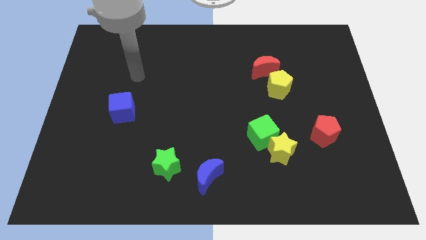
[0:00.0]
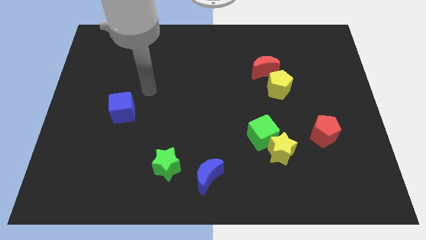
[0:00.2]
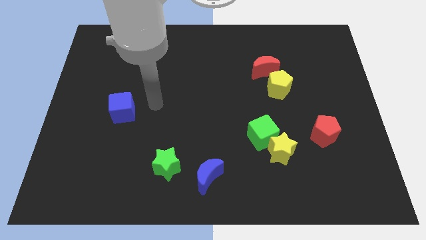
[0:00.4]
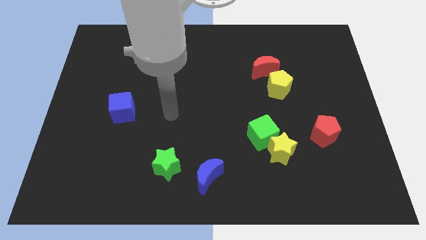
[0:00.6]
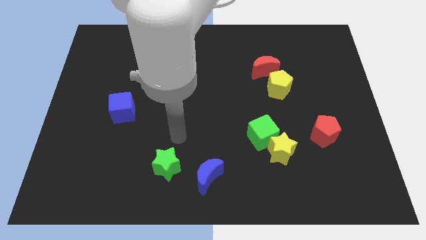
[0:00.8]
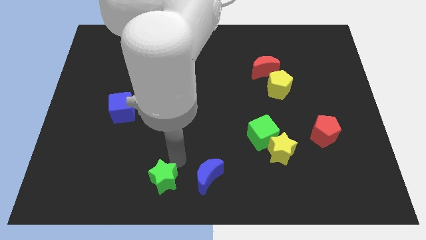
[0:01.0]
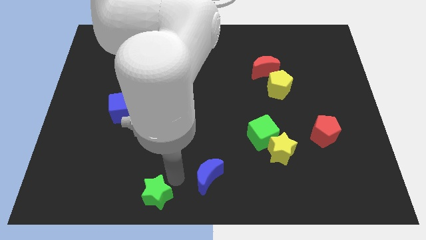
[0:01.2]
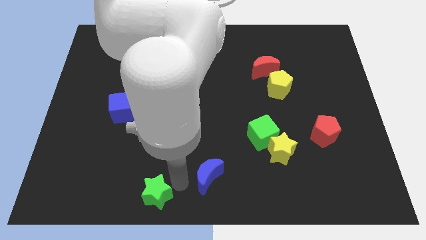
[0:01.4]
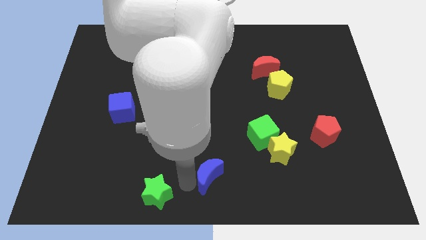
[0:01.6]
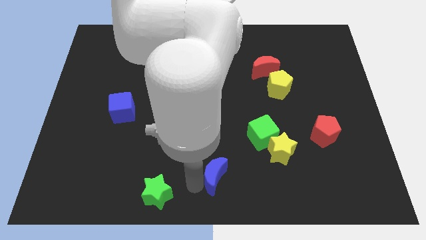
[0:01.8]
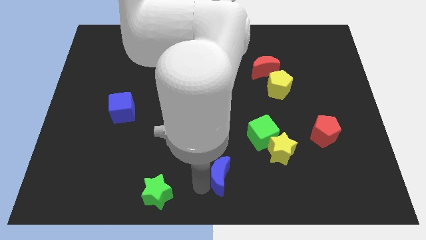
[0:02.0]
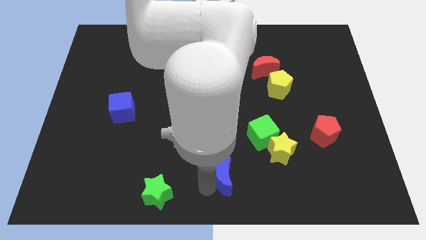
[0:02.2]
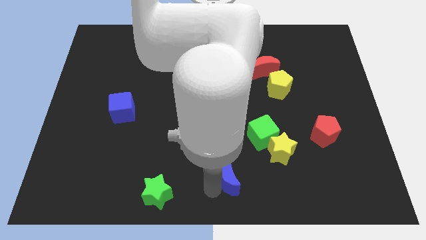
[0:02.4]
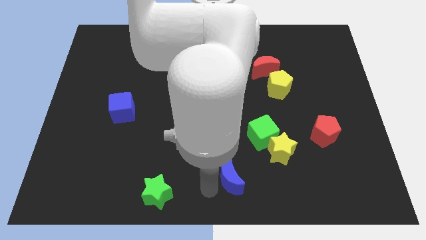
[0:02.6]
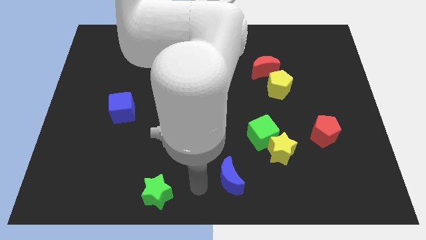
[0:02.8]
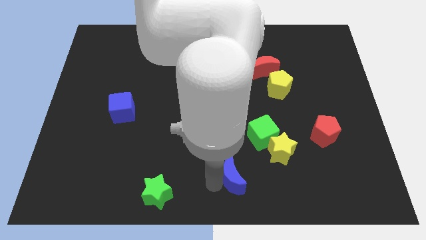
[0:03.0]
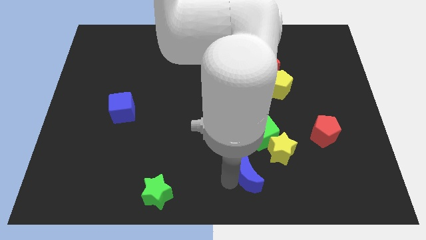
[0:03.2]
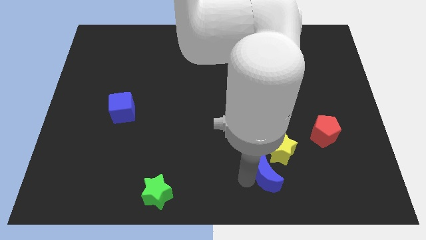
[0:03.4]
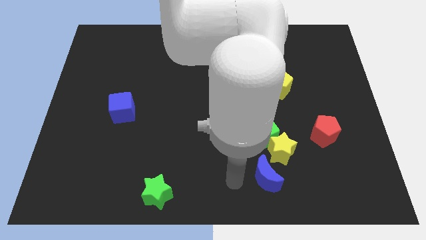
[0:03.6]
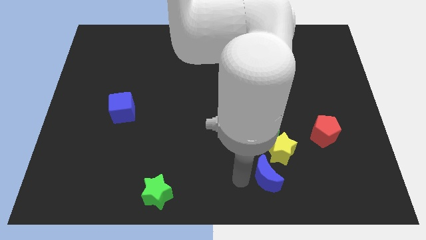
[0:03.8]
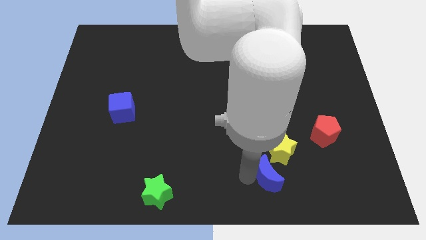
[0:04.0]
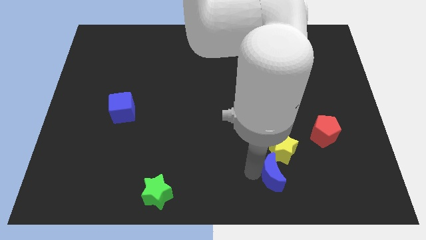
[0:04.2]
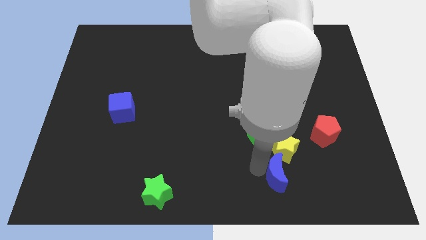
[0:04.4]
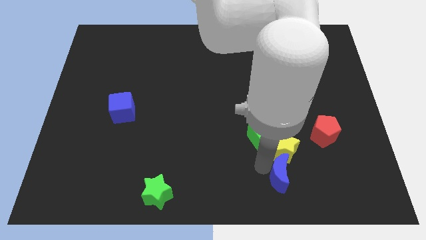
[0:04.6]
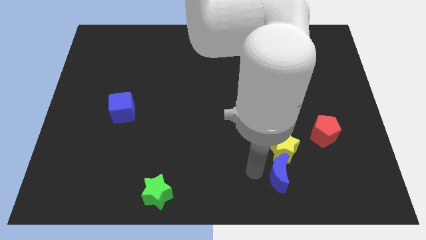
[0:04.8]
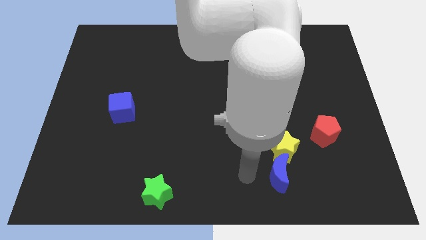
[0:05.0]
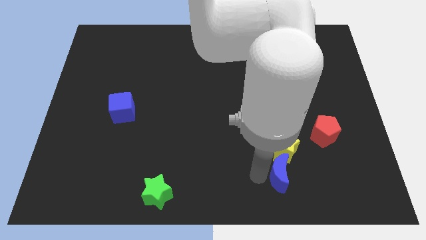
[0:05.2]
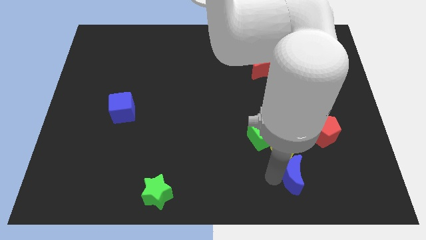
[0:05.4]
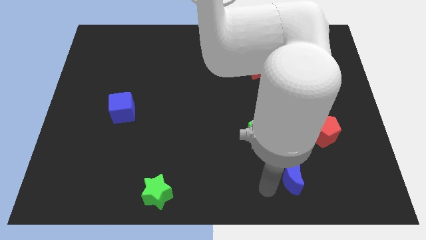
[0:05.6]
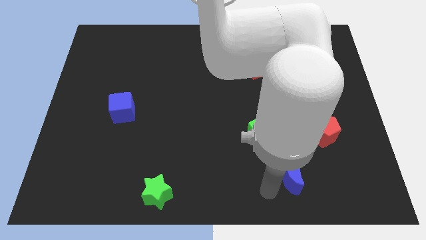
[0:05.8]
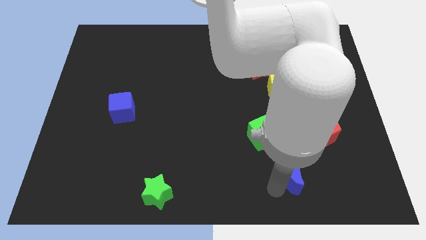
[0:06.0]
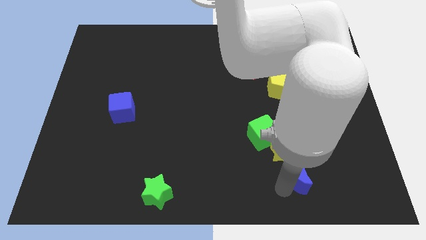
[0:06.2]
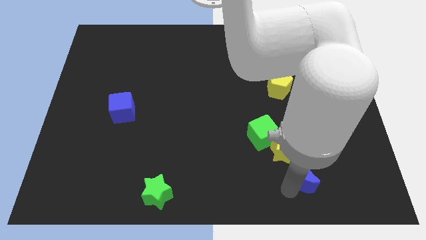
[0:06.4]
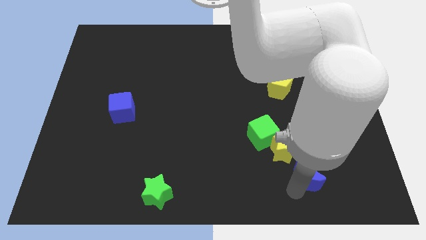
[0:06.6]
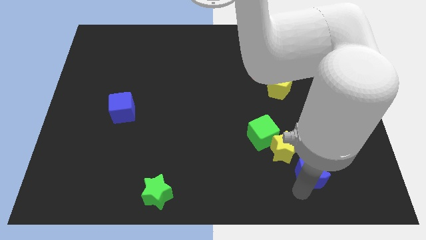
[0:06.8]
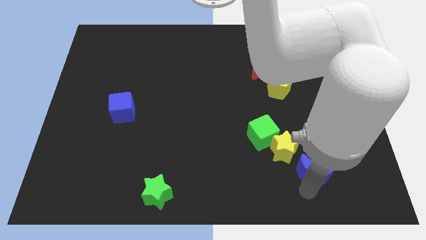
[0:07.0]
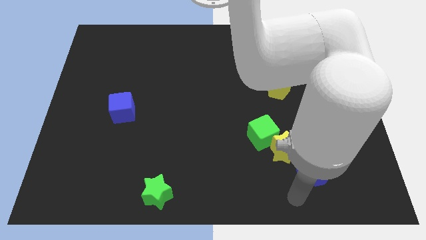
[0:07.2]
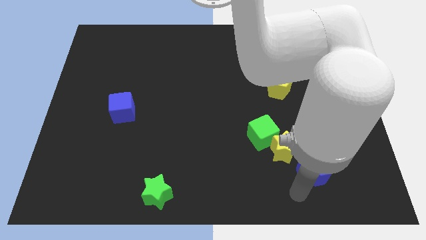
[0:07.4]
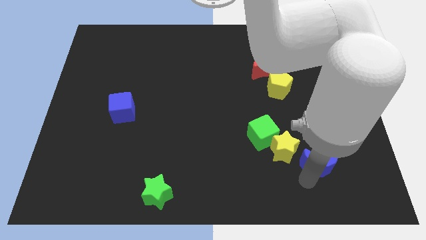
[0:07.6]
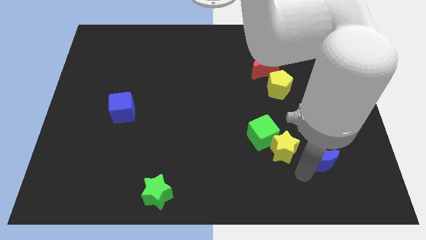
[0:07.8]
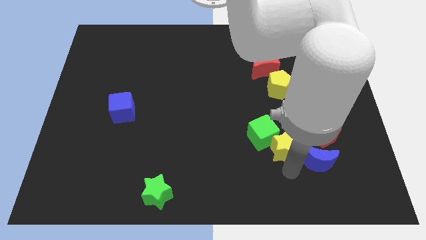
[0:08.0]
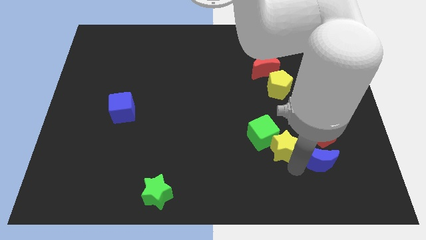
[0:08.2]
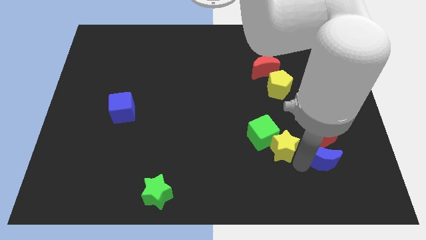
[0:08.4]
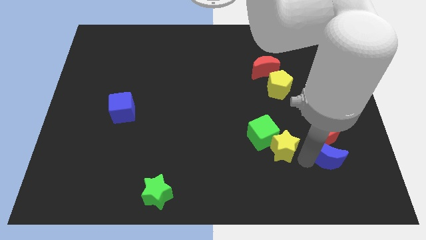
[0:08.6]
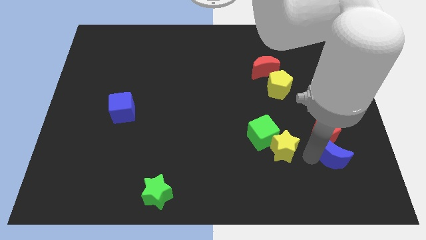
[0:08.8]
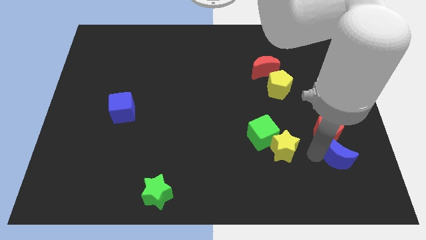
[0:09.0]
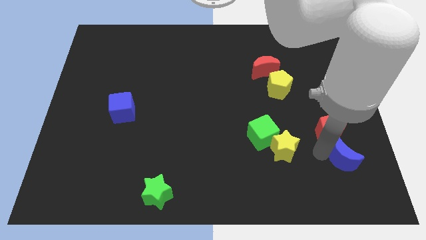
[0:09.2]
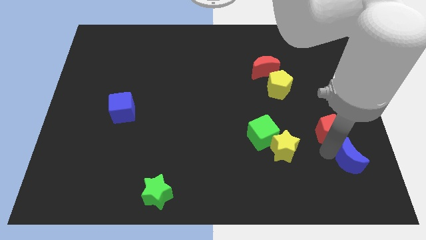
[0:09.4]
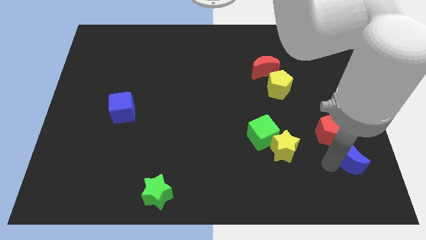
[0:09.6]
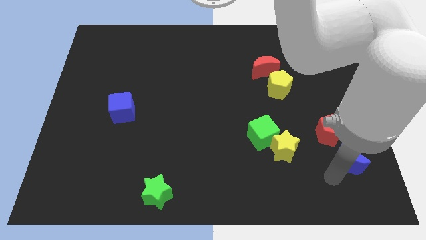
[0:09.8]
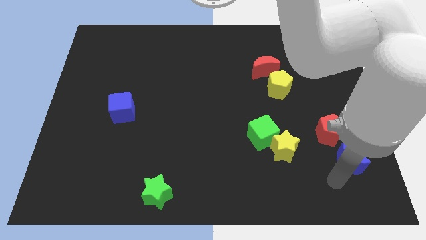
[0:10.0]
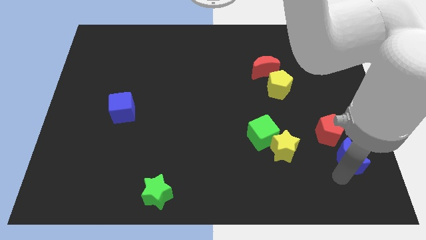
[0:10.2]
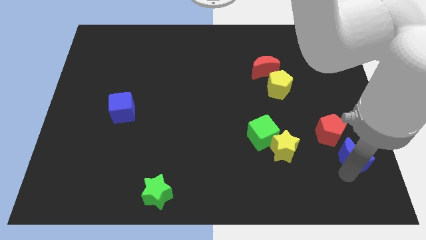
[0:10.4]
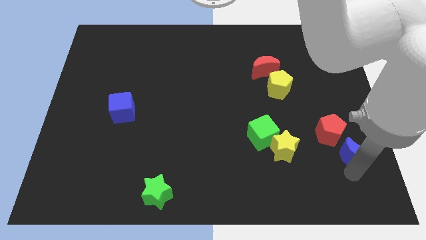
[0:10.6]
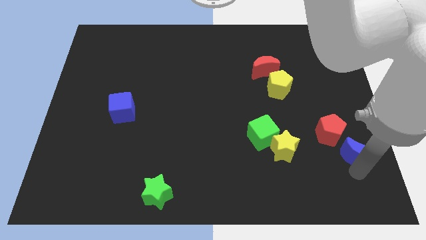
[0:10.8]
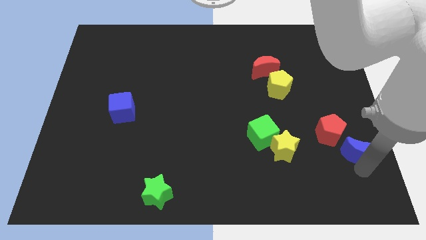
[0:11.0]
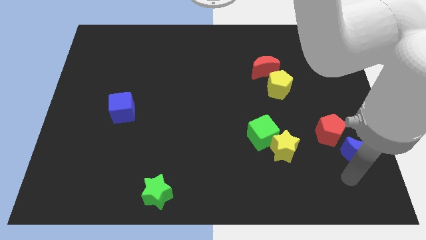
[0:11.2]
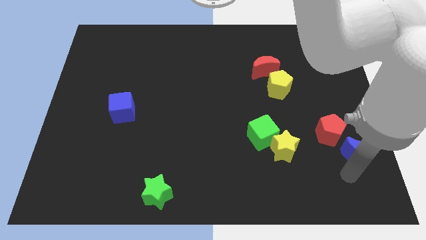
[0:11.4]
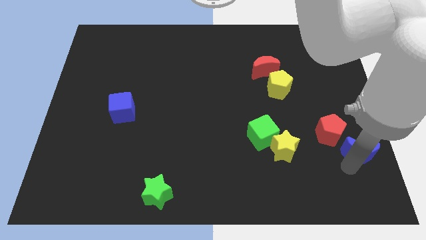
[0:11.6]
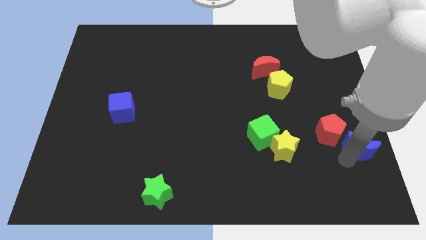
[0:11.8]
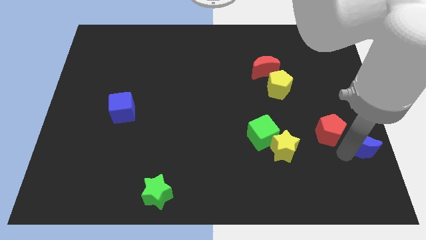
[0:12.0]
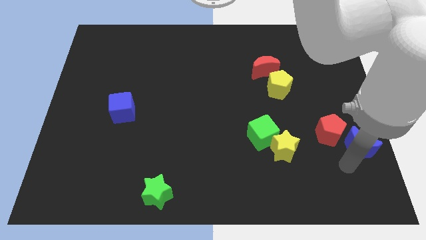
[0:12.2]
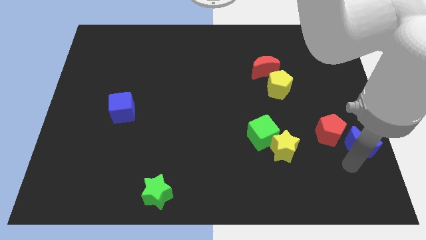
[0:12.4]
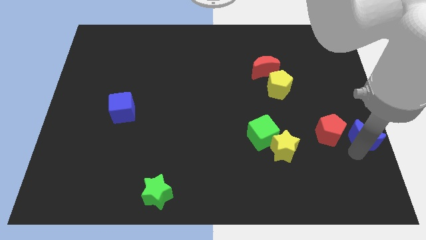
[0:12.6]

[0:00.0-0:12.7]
slide the blue moon to the right side of the board
